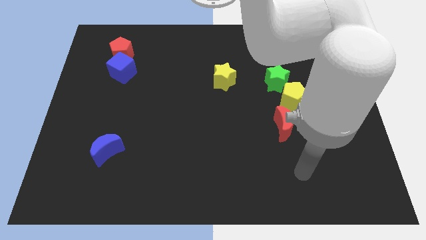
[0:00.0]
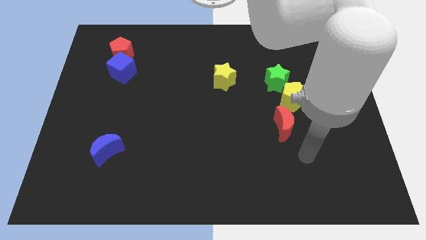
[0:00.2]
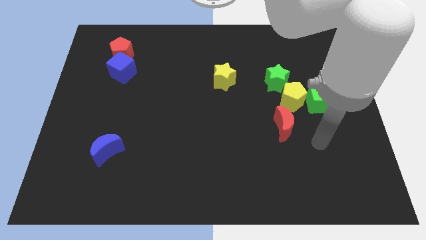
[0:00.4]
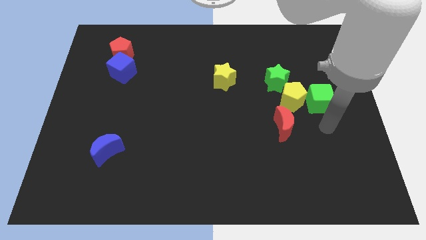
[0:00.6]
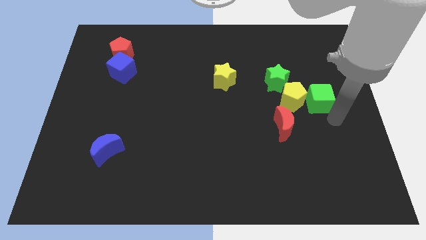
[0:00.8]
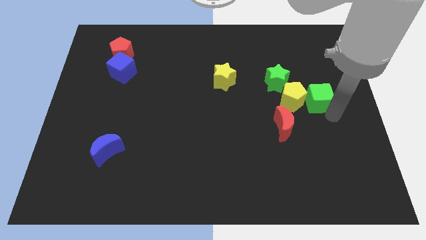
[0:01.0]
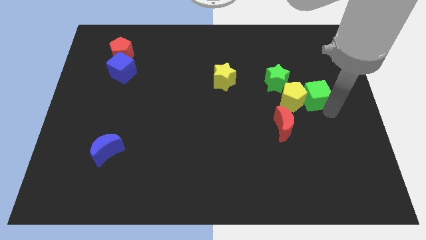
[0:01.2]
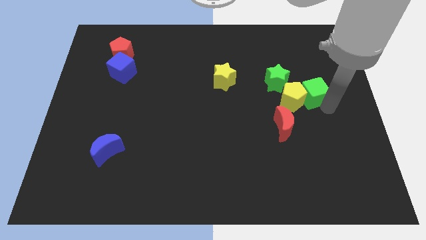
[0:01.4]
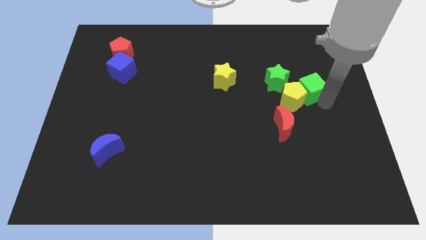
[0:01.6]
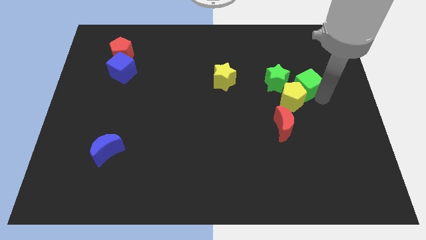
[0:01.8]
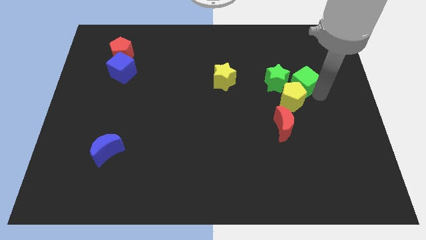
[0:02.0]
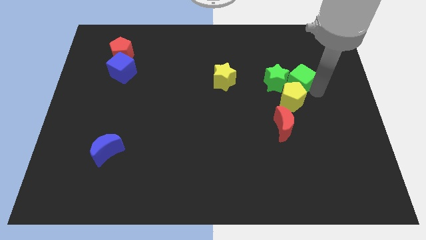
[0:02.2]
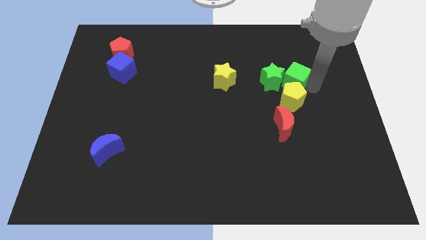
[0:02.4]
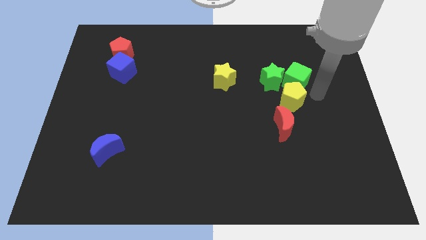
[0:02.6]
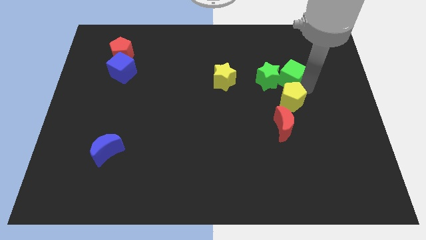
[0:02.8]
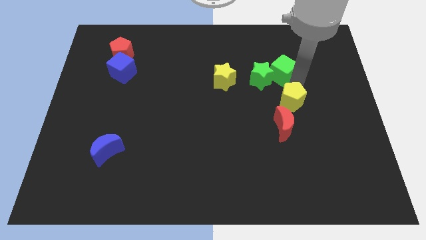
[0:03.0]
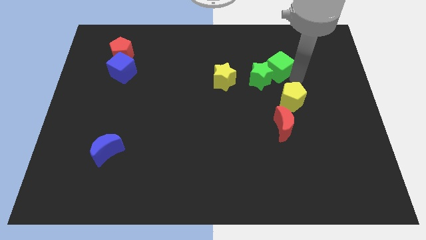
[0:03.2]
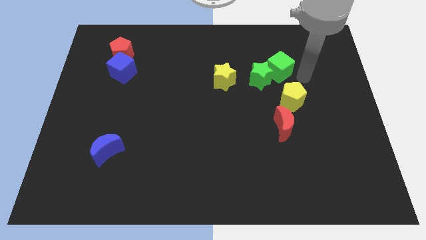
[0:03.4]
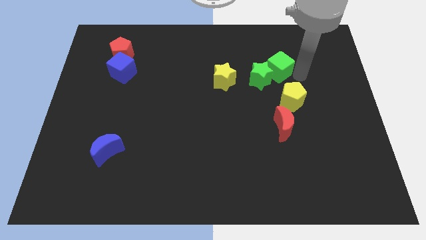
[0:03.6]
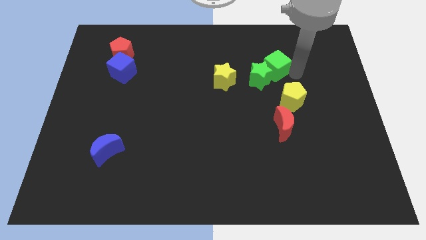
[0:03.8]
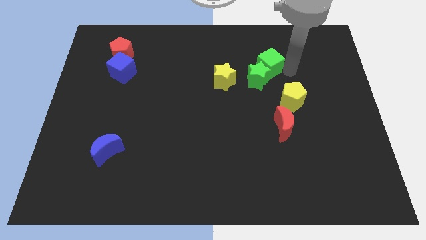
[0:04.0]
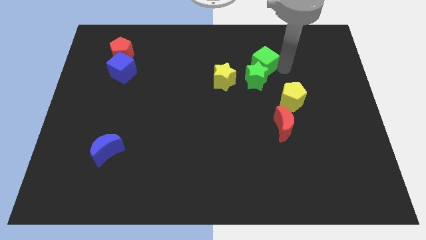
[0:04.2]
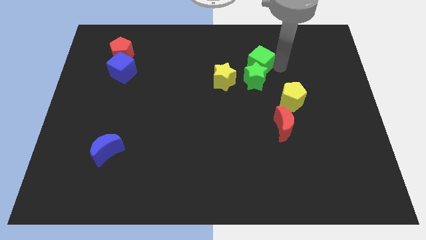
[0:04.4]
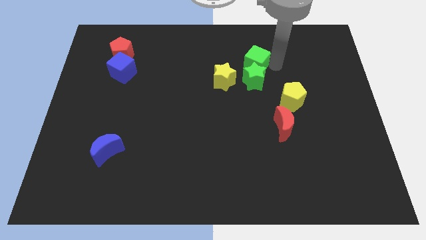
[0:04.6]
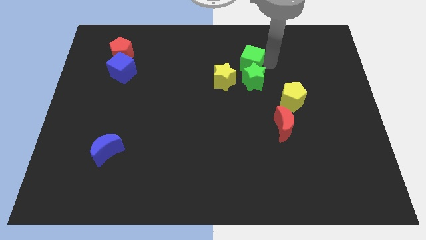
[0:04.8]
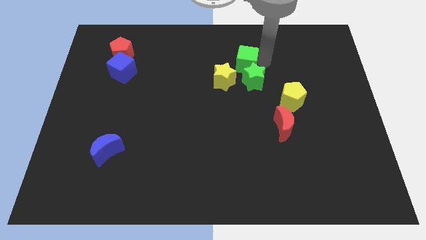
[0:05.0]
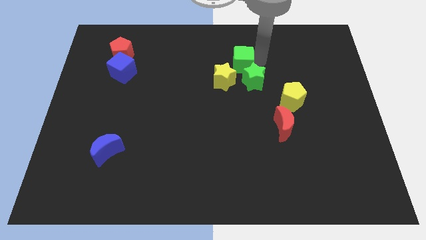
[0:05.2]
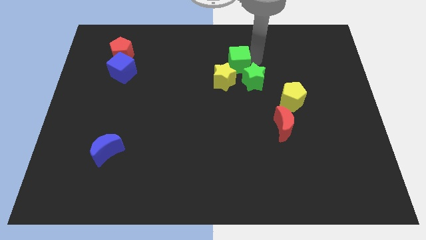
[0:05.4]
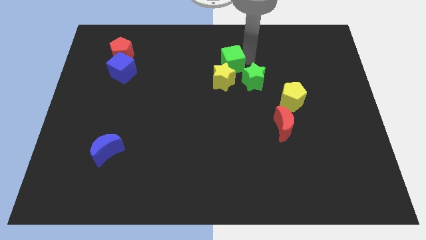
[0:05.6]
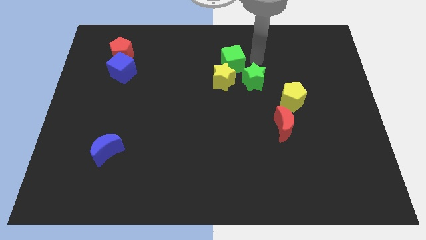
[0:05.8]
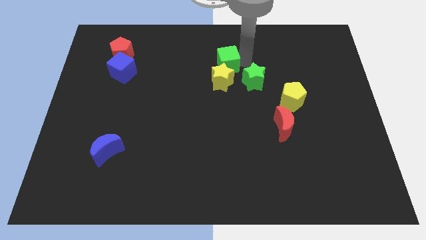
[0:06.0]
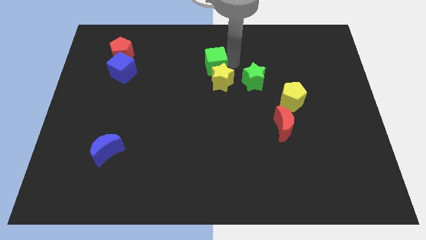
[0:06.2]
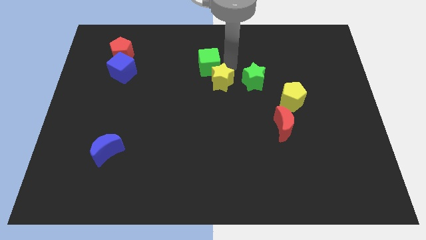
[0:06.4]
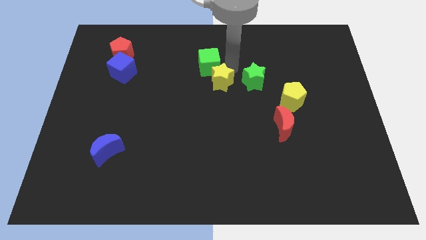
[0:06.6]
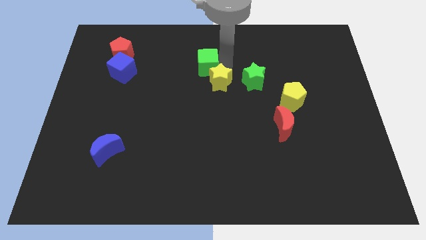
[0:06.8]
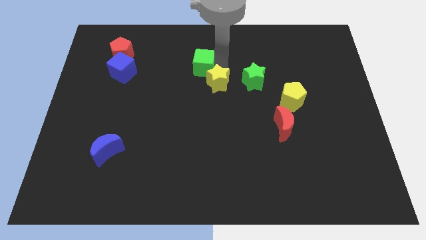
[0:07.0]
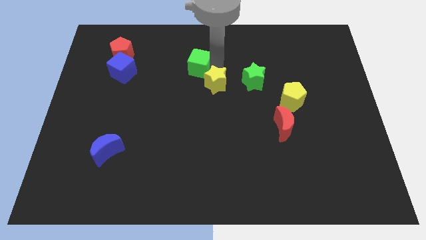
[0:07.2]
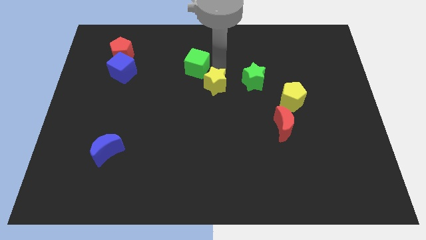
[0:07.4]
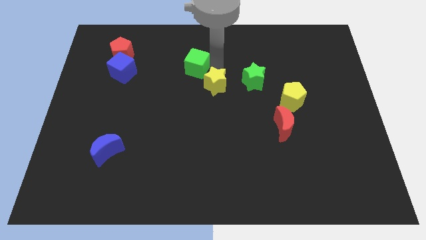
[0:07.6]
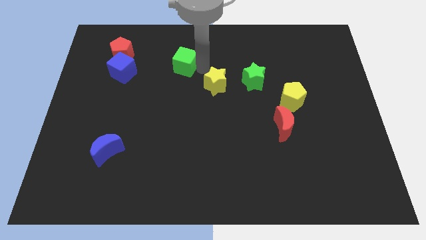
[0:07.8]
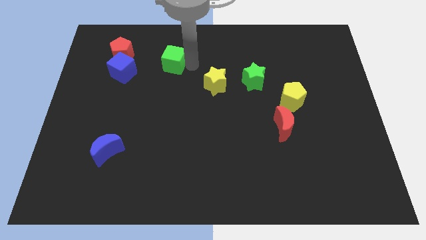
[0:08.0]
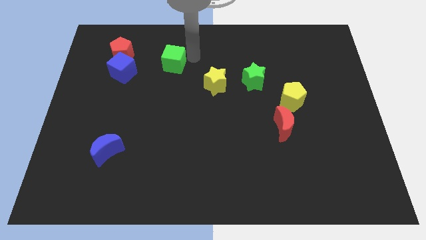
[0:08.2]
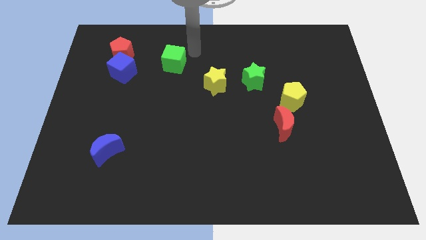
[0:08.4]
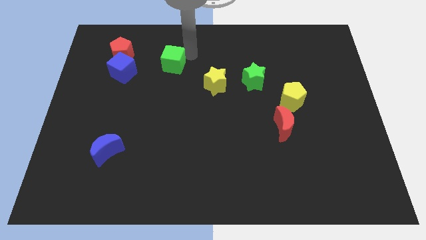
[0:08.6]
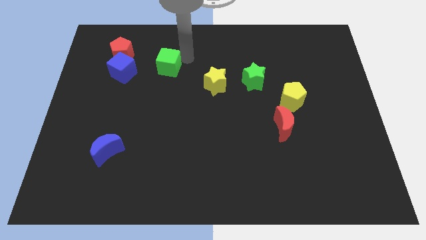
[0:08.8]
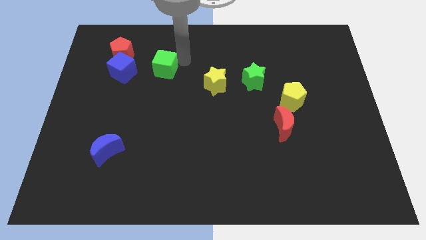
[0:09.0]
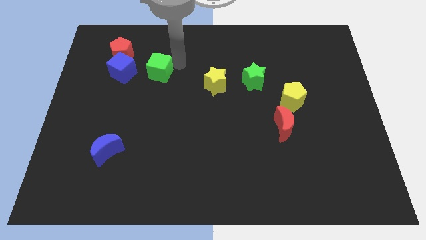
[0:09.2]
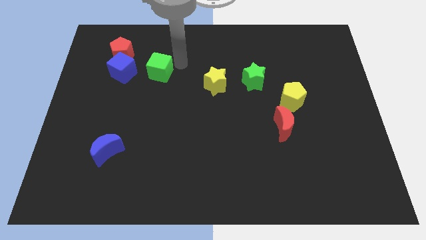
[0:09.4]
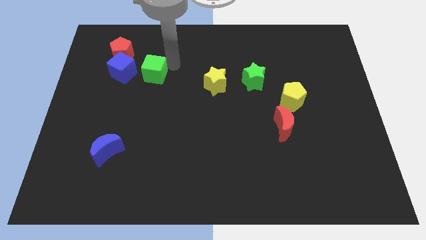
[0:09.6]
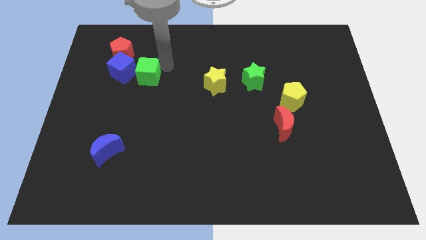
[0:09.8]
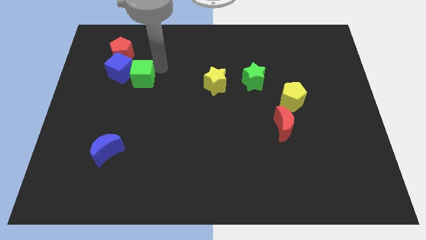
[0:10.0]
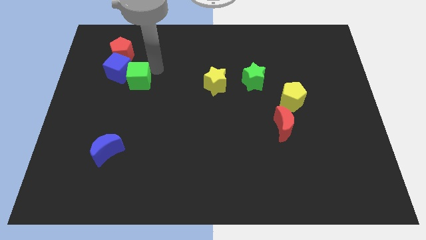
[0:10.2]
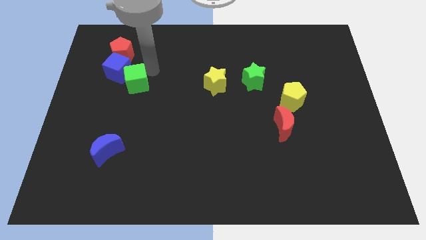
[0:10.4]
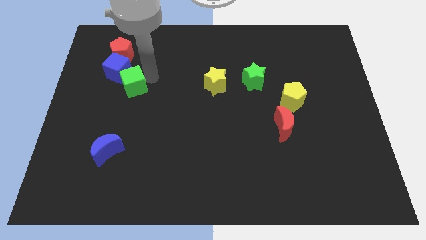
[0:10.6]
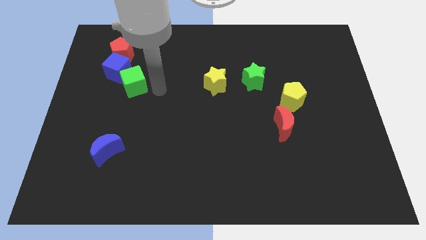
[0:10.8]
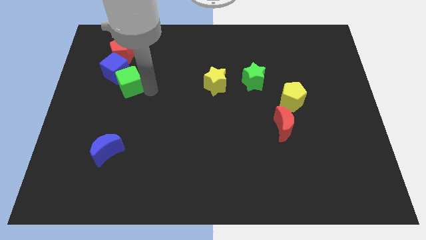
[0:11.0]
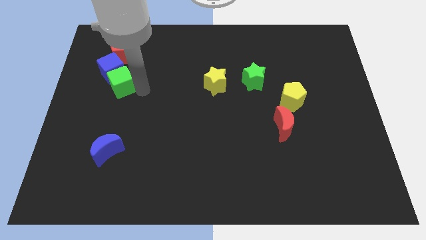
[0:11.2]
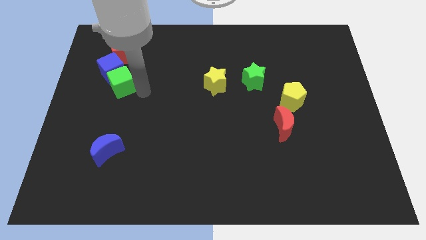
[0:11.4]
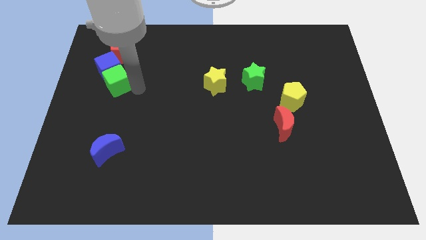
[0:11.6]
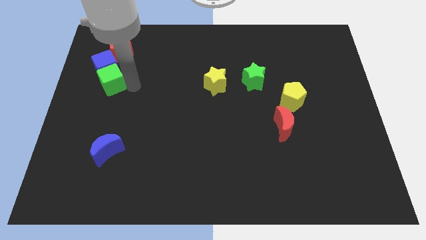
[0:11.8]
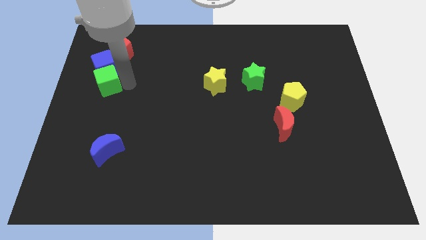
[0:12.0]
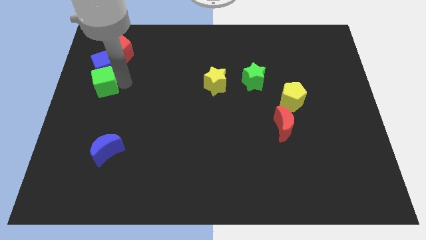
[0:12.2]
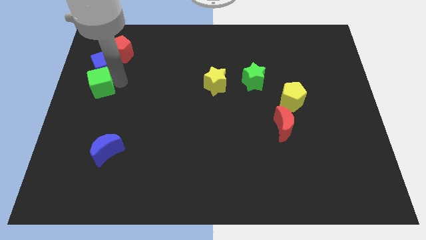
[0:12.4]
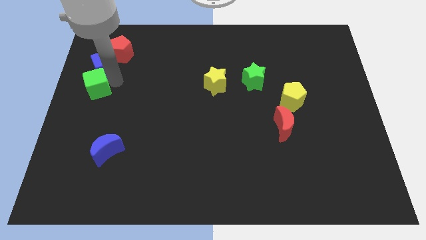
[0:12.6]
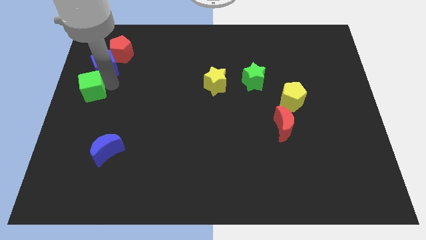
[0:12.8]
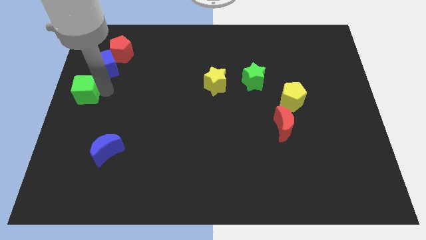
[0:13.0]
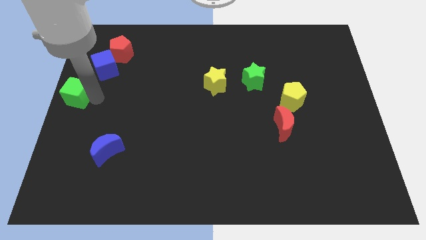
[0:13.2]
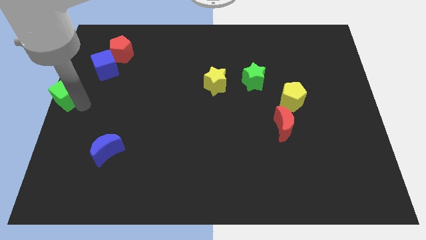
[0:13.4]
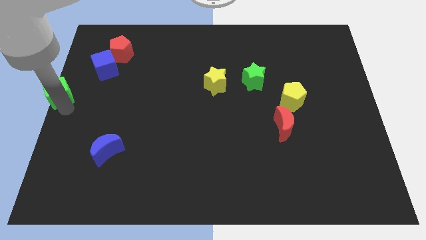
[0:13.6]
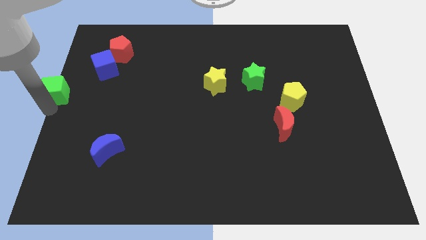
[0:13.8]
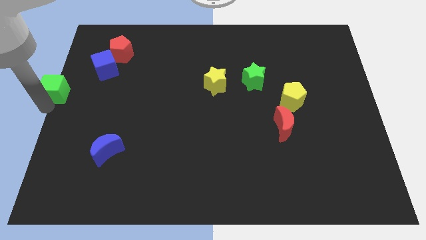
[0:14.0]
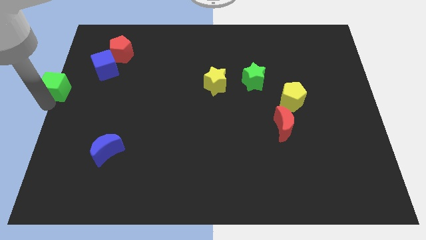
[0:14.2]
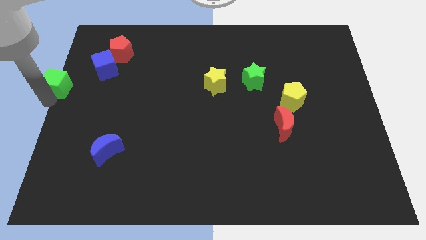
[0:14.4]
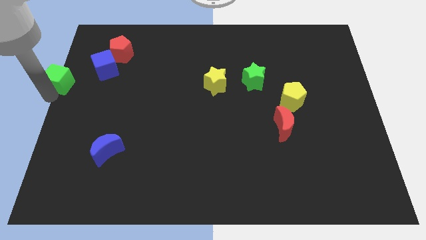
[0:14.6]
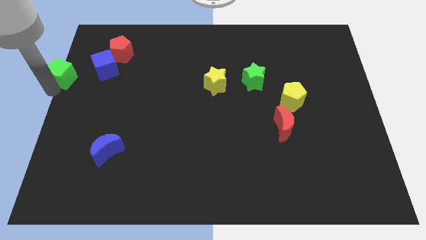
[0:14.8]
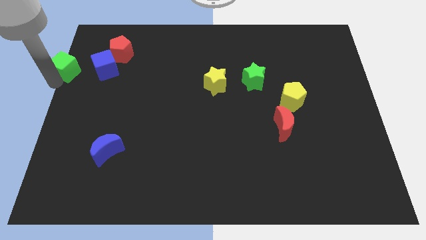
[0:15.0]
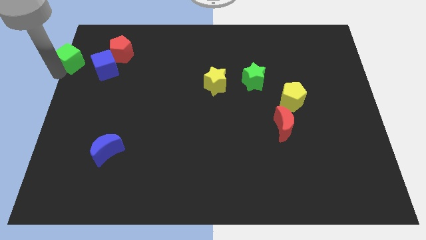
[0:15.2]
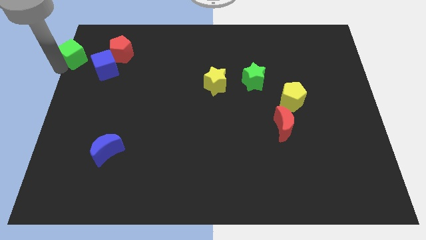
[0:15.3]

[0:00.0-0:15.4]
slide the green cube to the upper left corner
